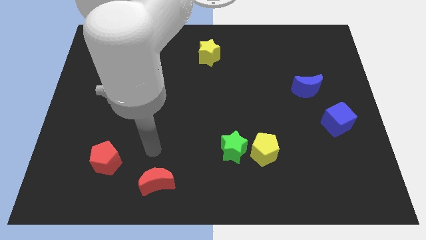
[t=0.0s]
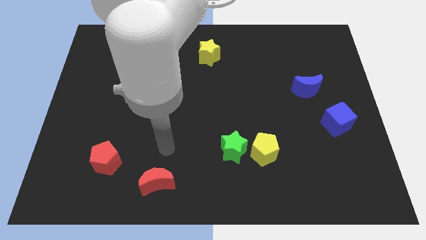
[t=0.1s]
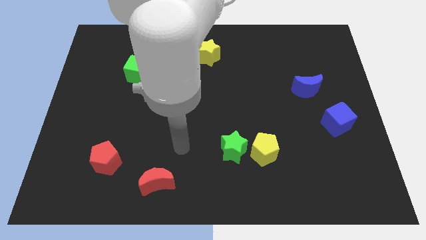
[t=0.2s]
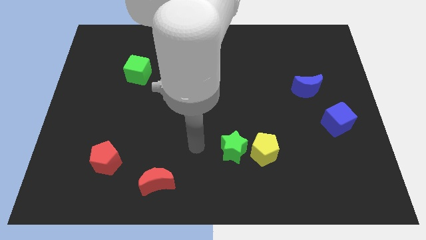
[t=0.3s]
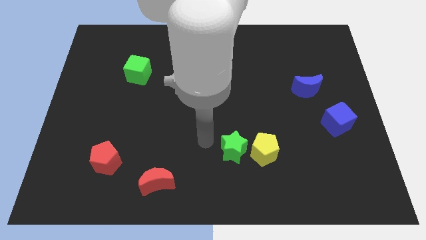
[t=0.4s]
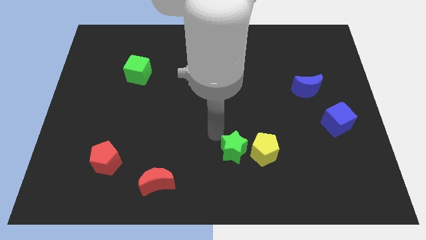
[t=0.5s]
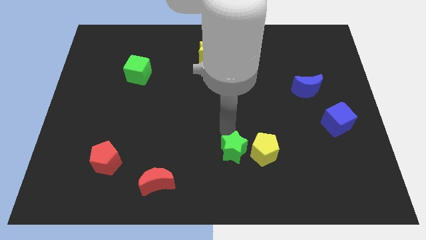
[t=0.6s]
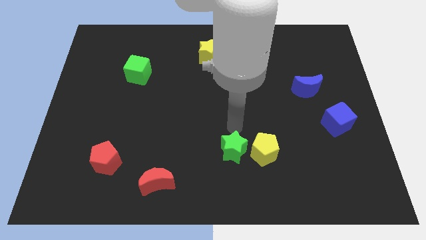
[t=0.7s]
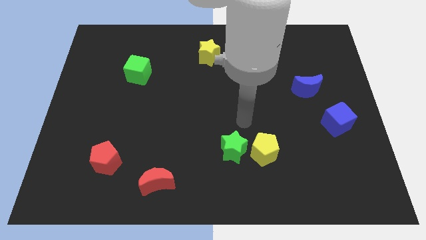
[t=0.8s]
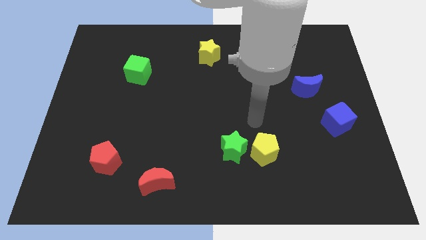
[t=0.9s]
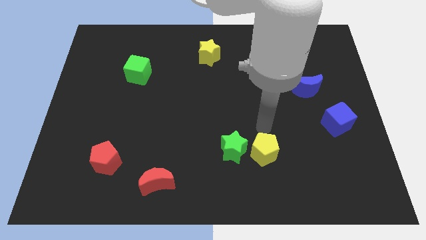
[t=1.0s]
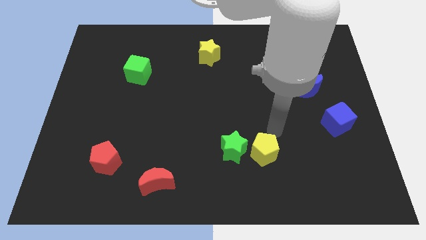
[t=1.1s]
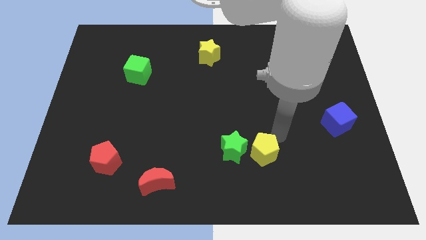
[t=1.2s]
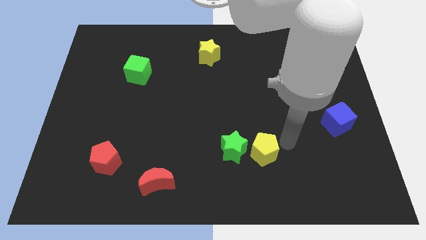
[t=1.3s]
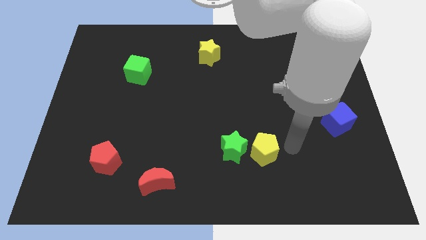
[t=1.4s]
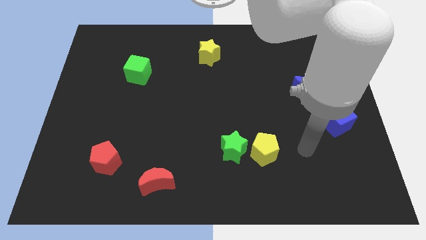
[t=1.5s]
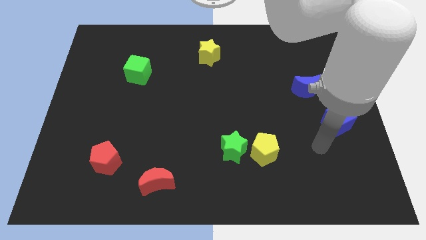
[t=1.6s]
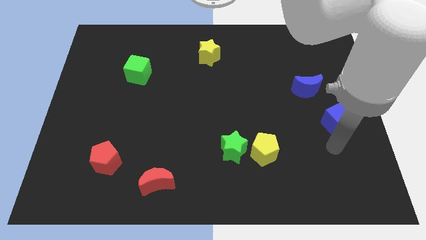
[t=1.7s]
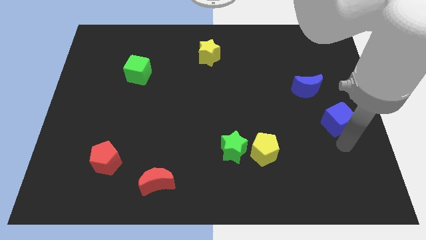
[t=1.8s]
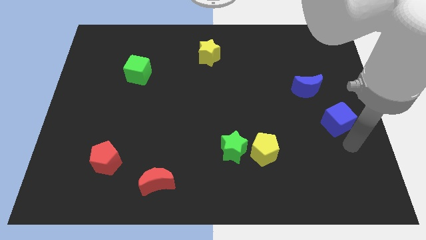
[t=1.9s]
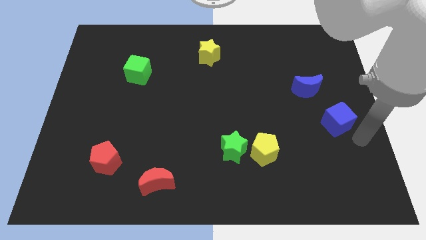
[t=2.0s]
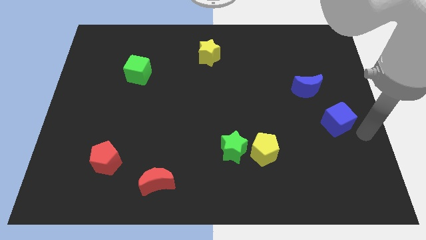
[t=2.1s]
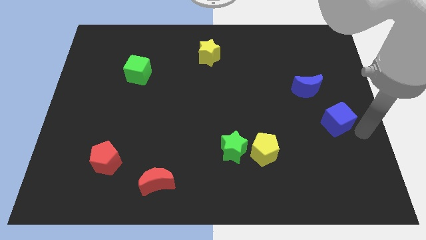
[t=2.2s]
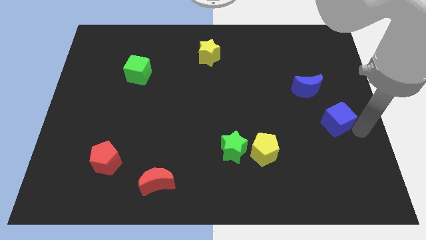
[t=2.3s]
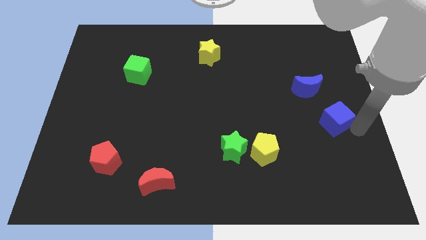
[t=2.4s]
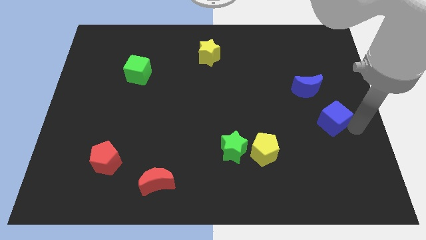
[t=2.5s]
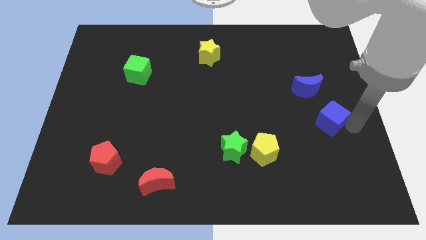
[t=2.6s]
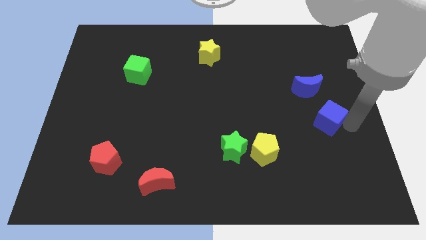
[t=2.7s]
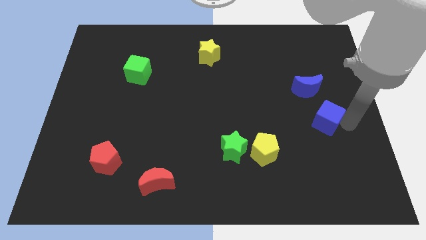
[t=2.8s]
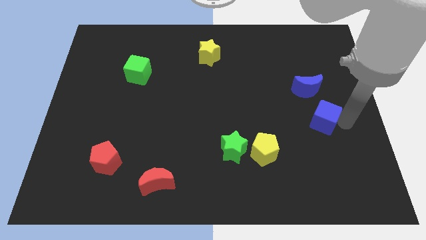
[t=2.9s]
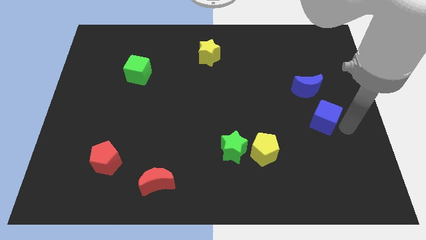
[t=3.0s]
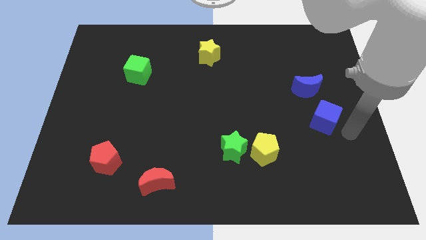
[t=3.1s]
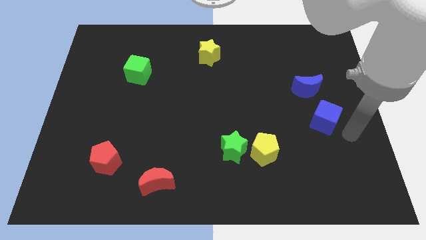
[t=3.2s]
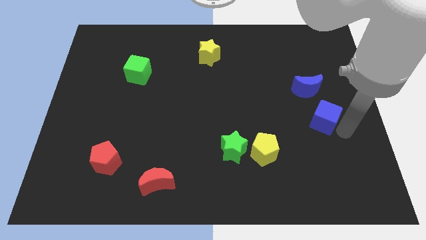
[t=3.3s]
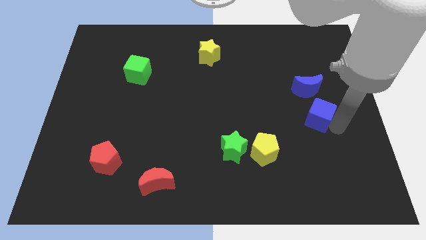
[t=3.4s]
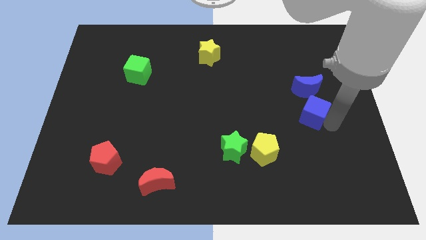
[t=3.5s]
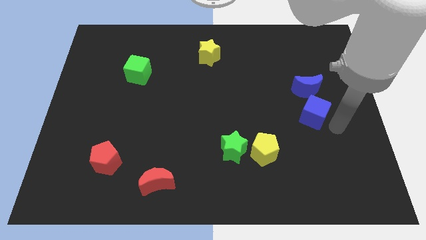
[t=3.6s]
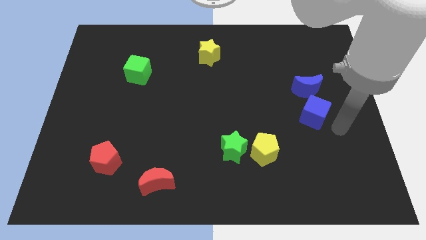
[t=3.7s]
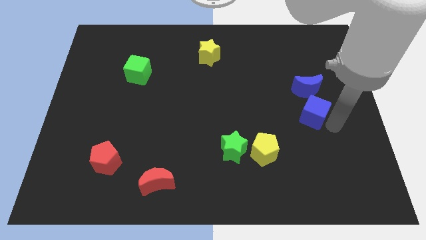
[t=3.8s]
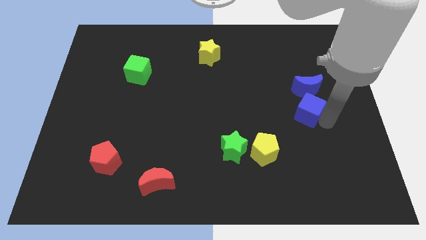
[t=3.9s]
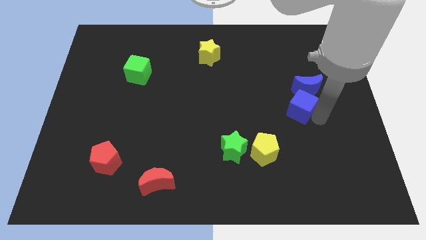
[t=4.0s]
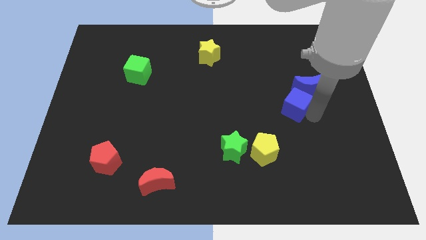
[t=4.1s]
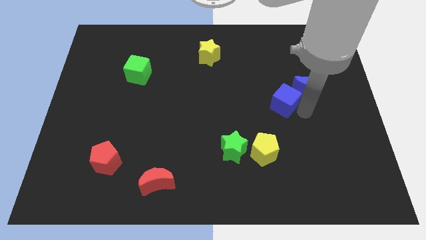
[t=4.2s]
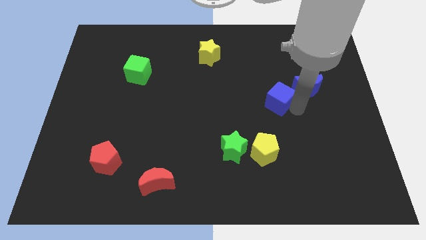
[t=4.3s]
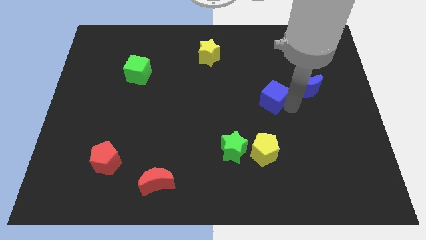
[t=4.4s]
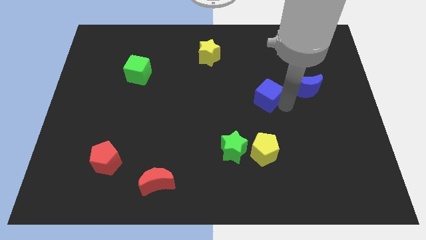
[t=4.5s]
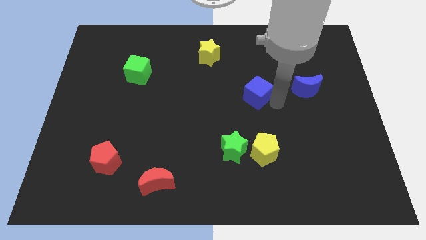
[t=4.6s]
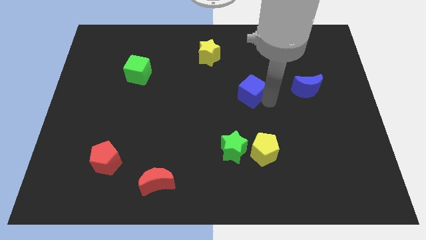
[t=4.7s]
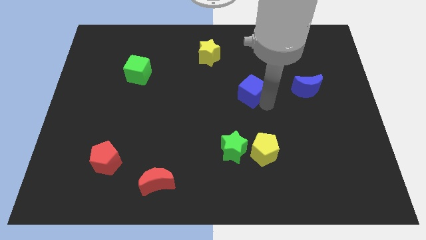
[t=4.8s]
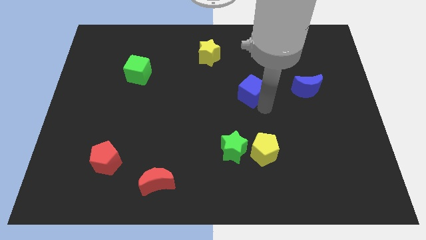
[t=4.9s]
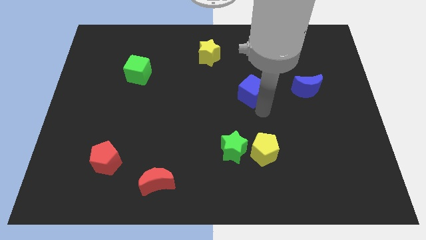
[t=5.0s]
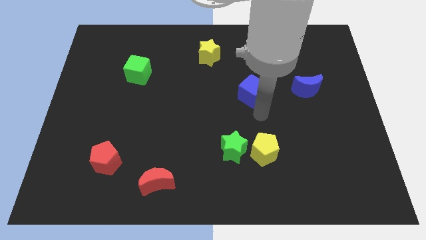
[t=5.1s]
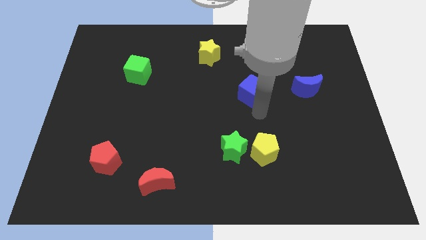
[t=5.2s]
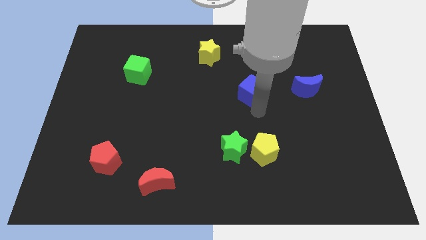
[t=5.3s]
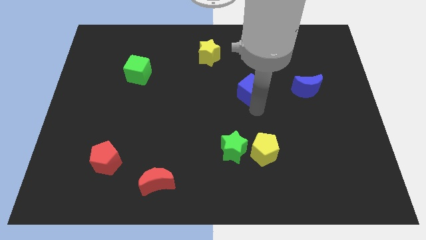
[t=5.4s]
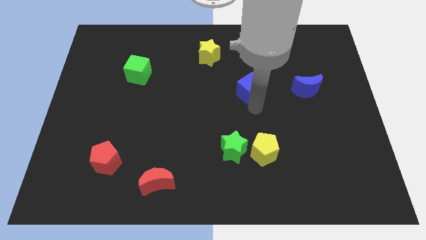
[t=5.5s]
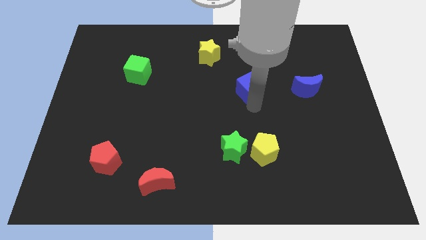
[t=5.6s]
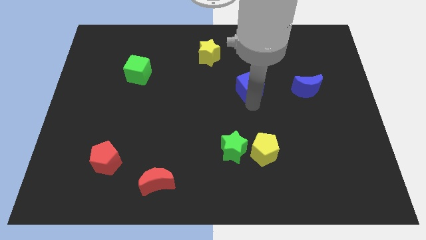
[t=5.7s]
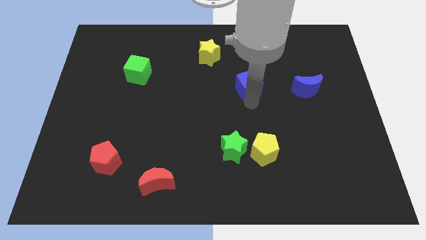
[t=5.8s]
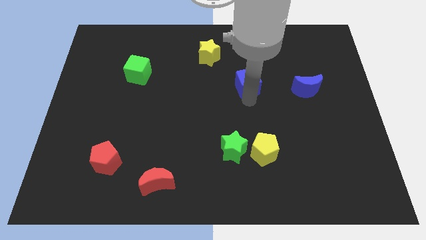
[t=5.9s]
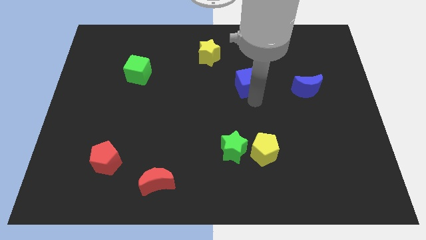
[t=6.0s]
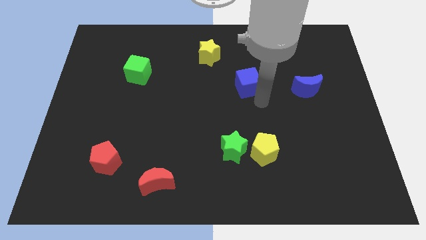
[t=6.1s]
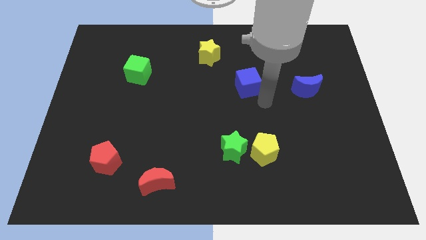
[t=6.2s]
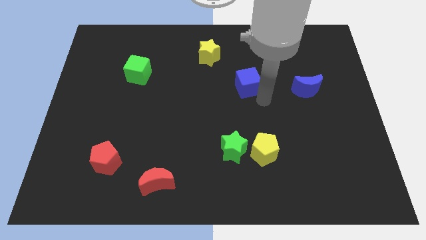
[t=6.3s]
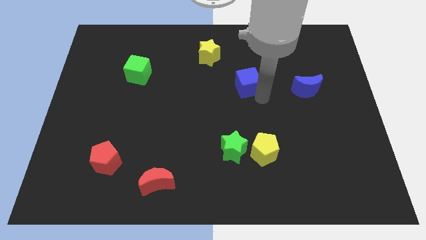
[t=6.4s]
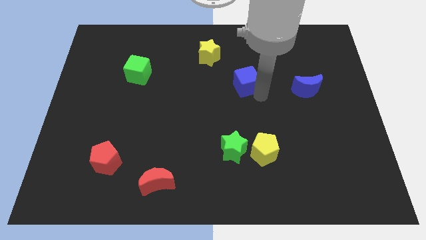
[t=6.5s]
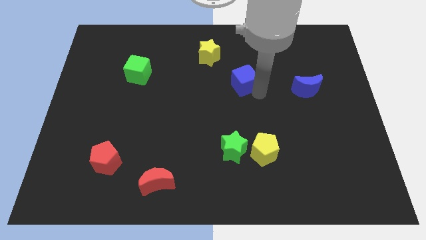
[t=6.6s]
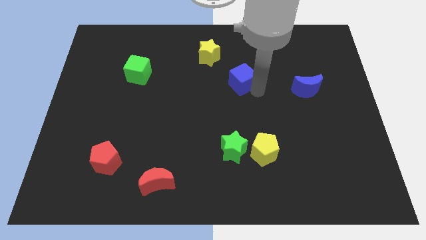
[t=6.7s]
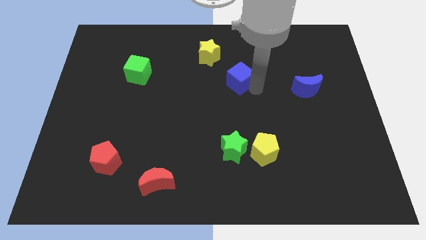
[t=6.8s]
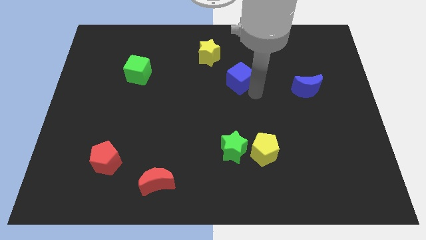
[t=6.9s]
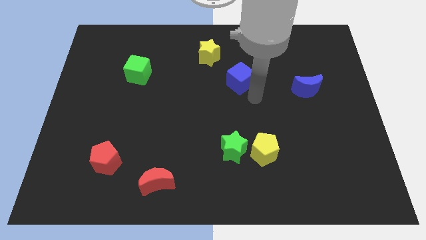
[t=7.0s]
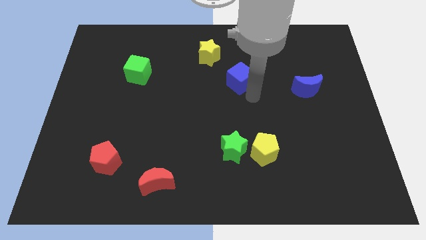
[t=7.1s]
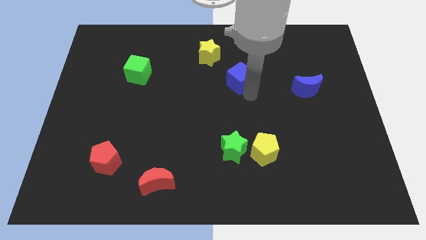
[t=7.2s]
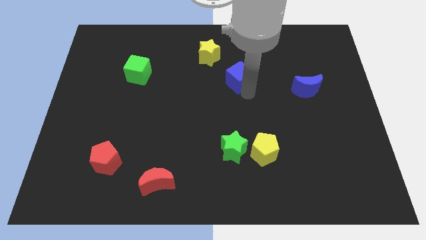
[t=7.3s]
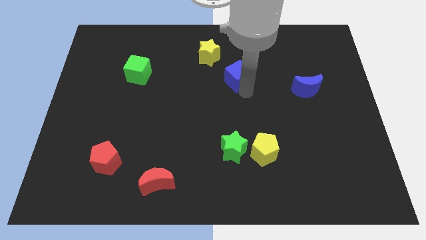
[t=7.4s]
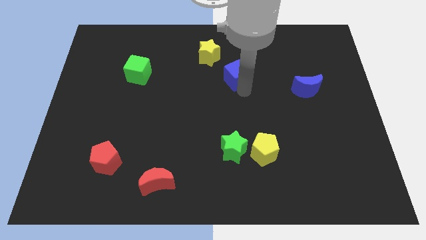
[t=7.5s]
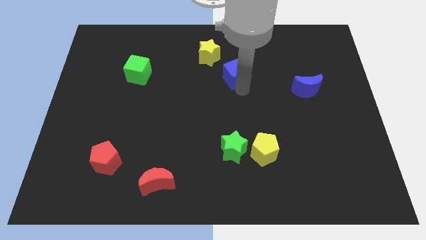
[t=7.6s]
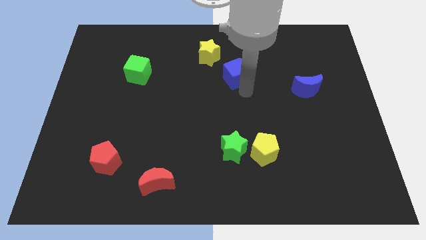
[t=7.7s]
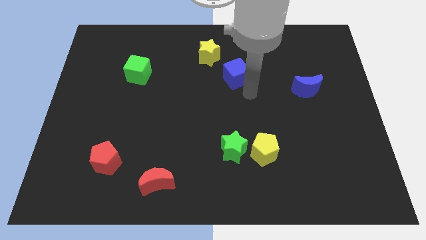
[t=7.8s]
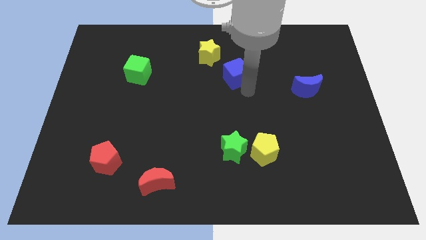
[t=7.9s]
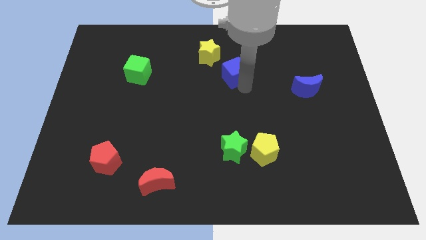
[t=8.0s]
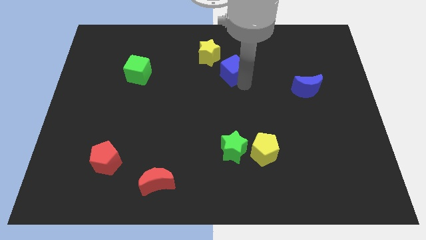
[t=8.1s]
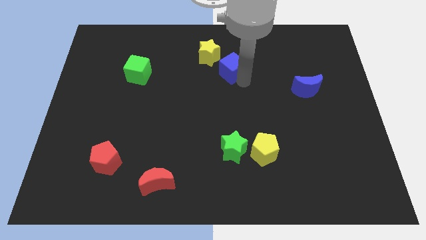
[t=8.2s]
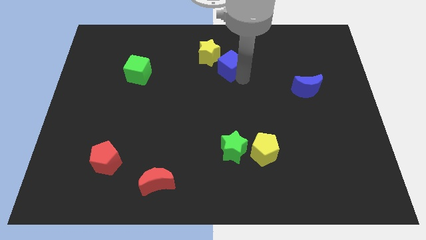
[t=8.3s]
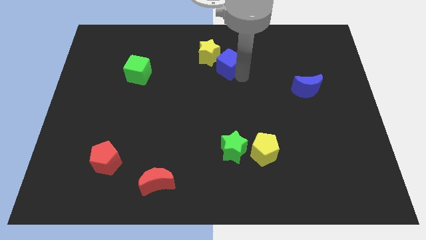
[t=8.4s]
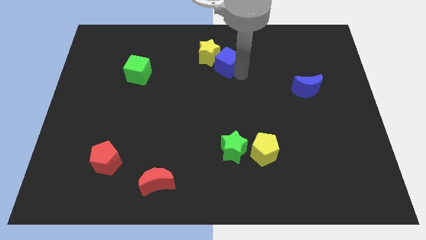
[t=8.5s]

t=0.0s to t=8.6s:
move the blue cube to the yellow star
